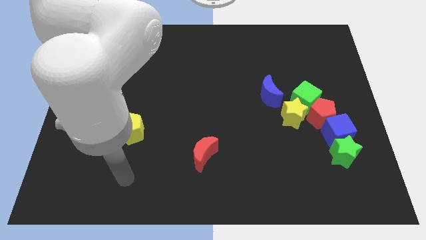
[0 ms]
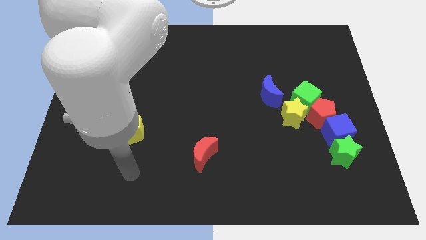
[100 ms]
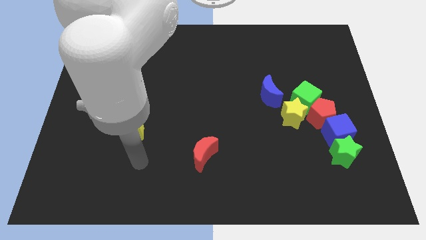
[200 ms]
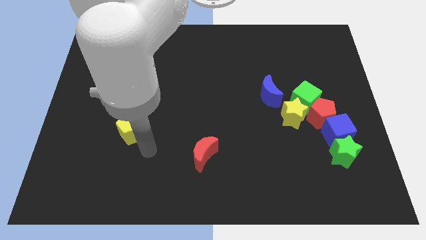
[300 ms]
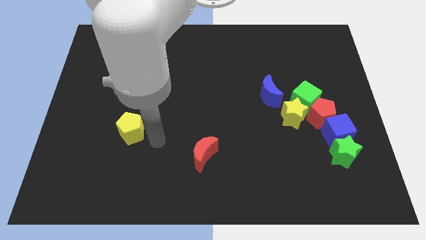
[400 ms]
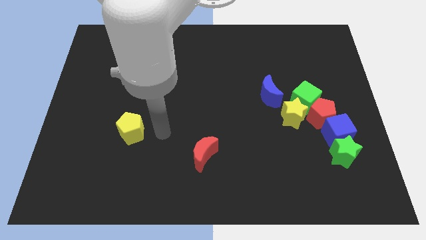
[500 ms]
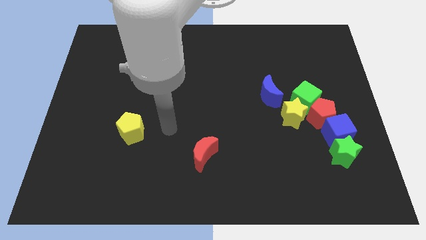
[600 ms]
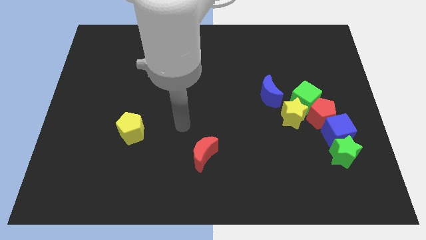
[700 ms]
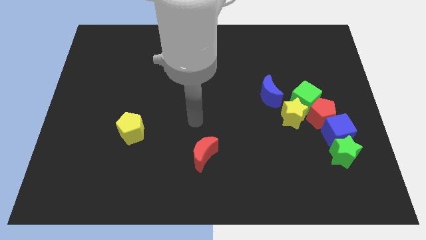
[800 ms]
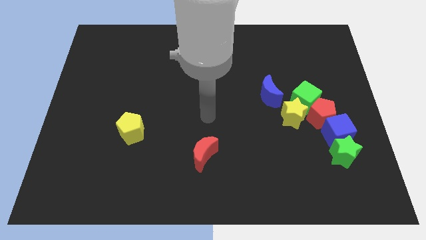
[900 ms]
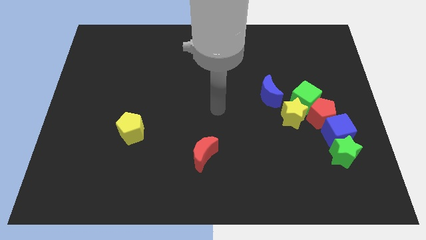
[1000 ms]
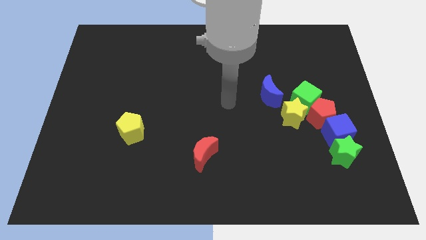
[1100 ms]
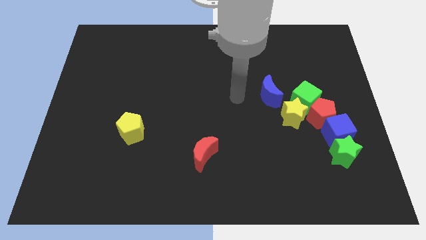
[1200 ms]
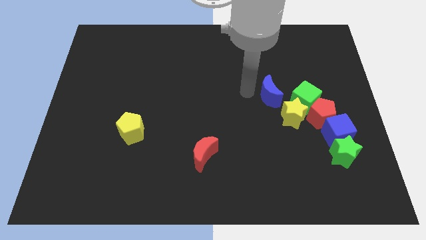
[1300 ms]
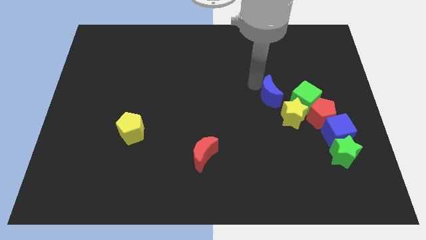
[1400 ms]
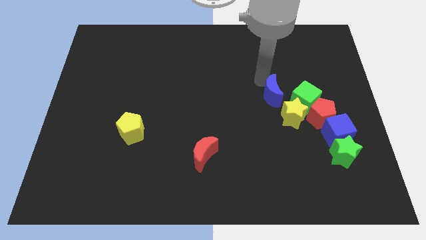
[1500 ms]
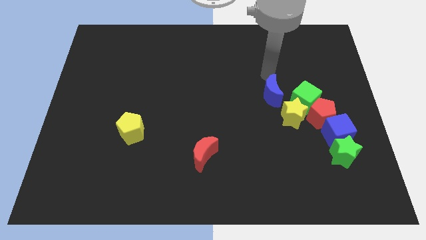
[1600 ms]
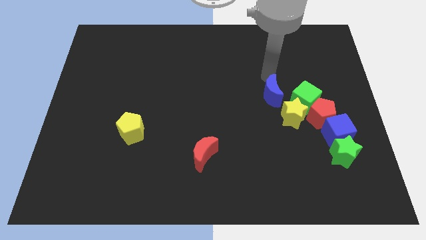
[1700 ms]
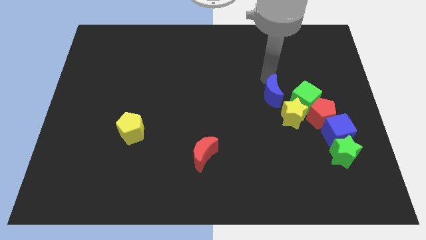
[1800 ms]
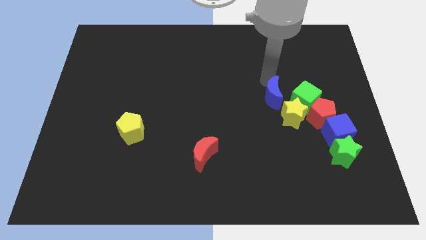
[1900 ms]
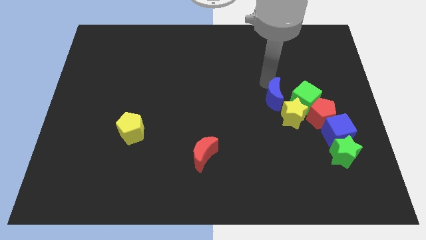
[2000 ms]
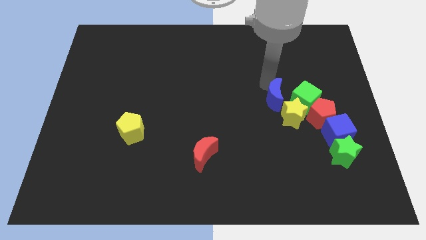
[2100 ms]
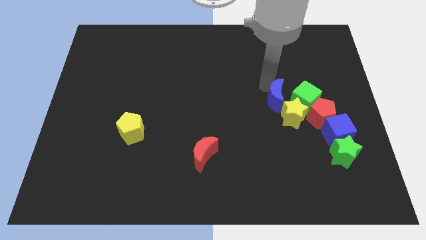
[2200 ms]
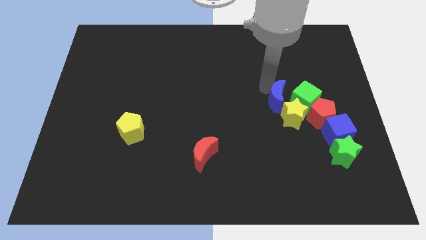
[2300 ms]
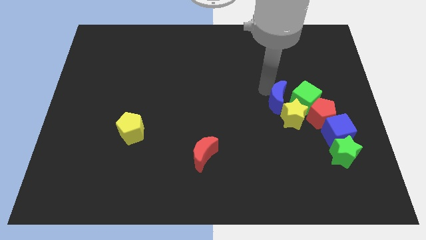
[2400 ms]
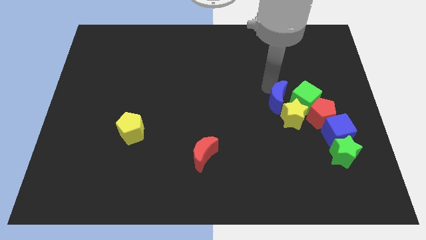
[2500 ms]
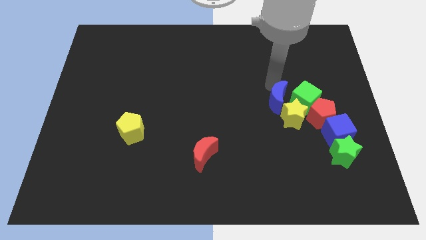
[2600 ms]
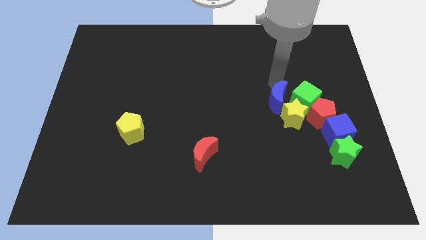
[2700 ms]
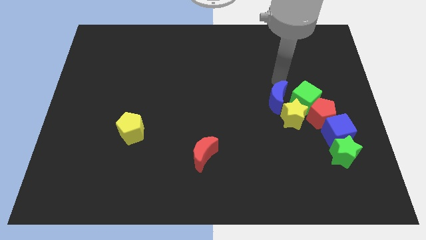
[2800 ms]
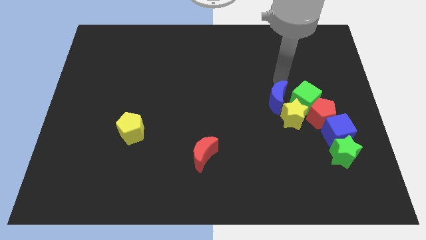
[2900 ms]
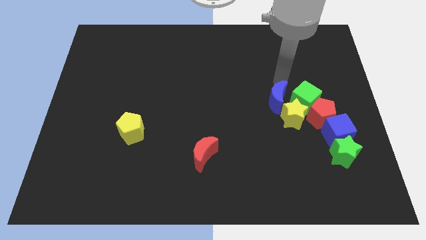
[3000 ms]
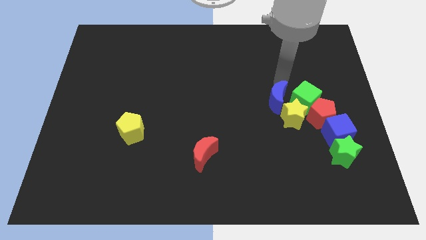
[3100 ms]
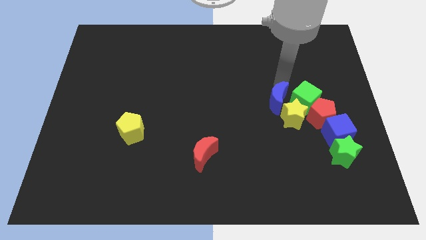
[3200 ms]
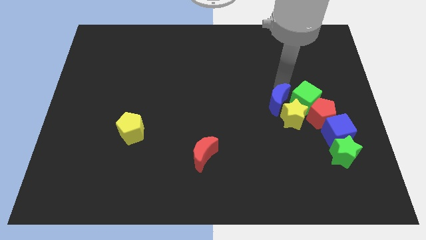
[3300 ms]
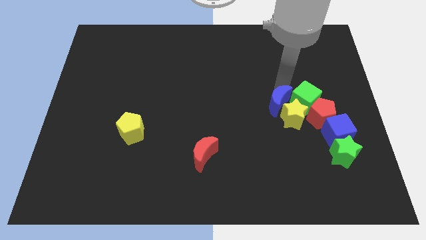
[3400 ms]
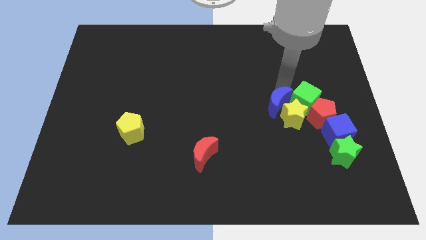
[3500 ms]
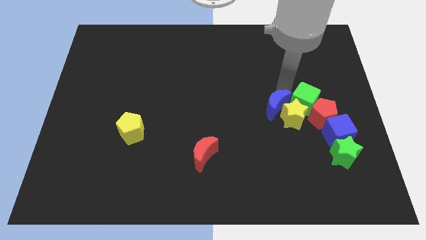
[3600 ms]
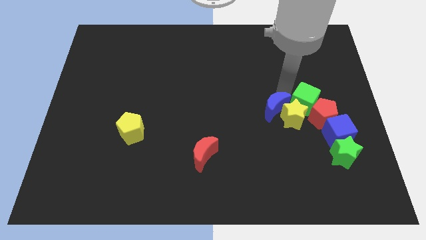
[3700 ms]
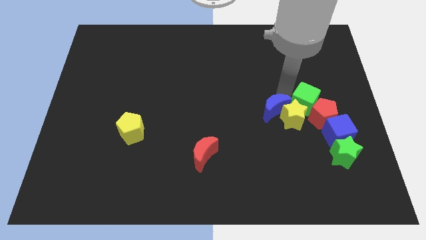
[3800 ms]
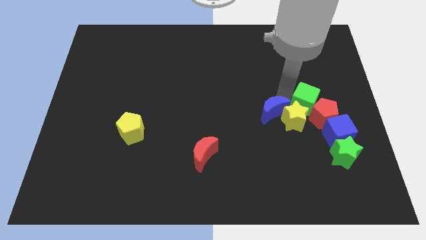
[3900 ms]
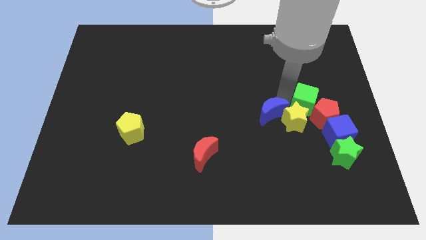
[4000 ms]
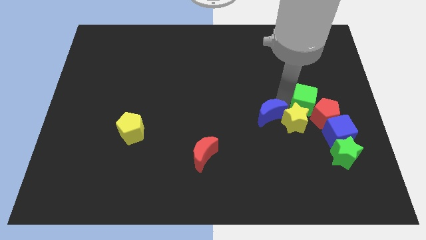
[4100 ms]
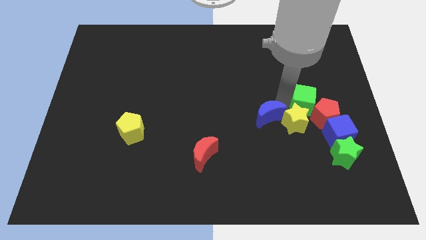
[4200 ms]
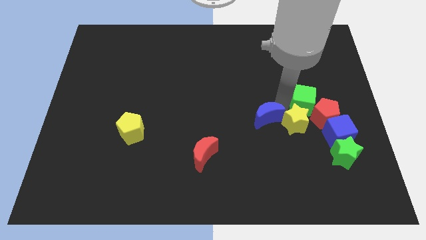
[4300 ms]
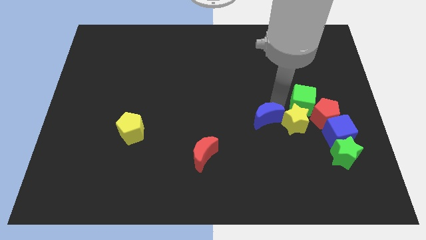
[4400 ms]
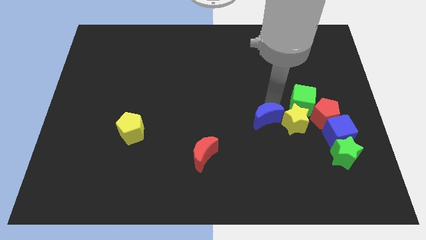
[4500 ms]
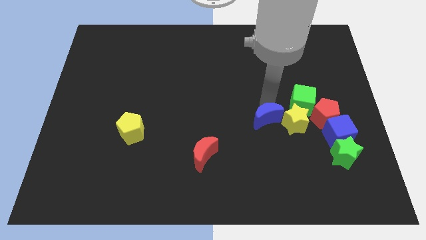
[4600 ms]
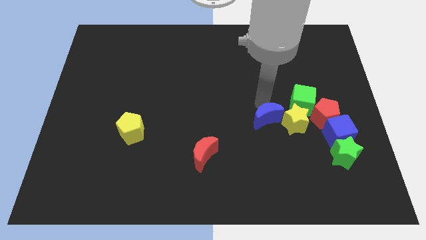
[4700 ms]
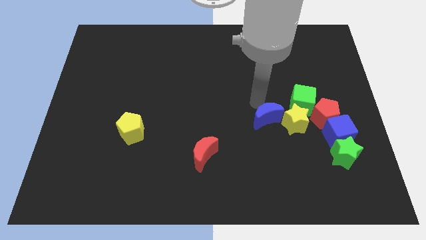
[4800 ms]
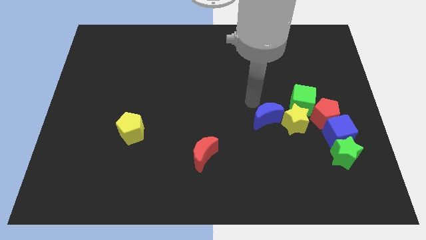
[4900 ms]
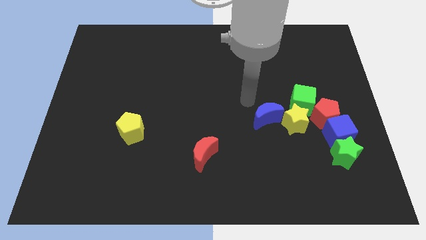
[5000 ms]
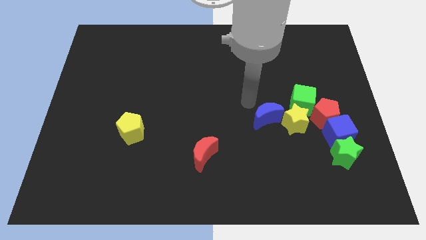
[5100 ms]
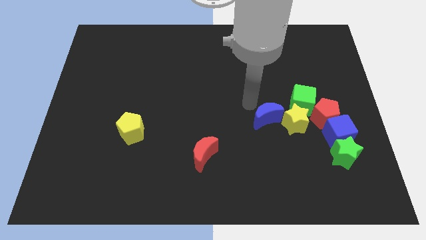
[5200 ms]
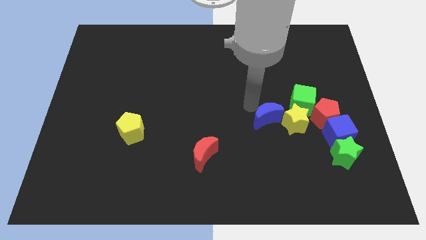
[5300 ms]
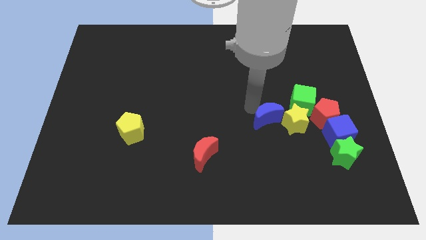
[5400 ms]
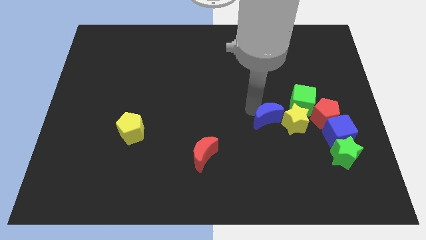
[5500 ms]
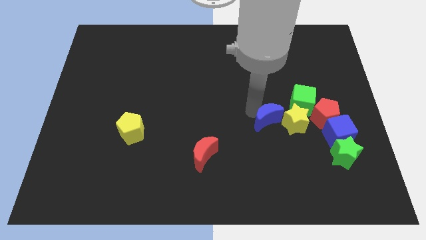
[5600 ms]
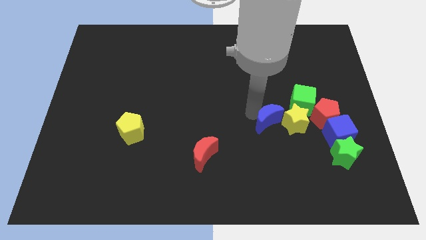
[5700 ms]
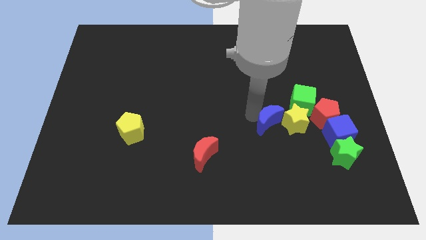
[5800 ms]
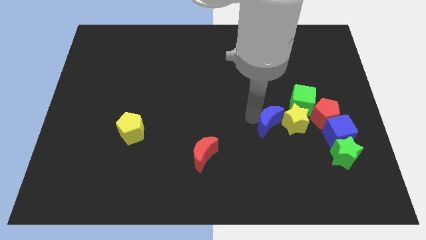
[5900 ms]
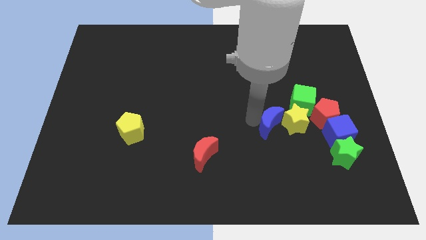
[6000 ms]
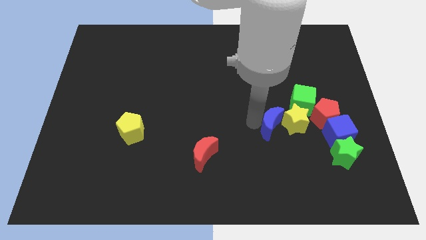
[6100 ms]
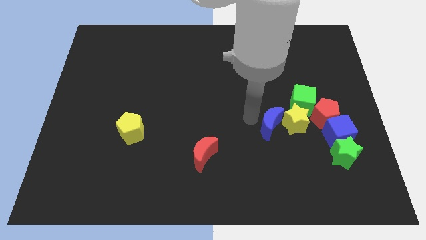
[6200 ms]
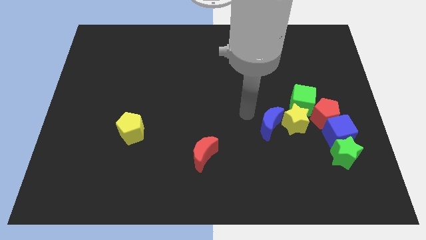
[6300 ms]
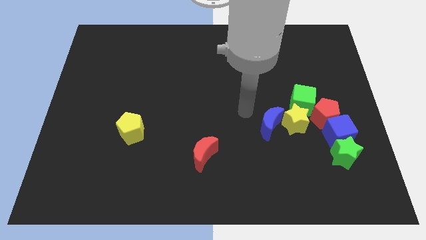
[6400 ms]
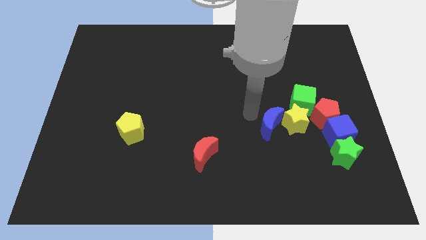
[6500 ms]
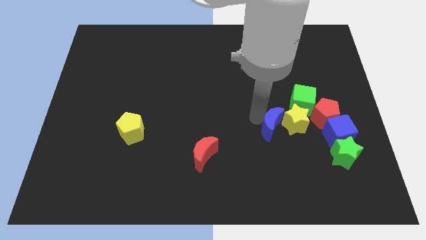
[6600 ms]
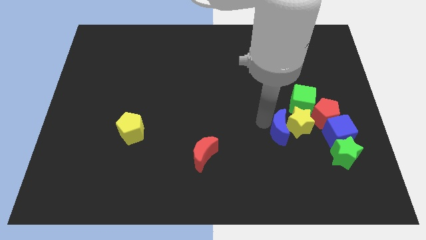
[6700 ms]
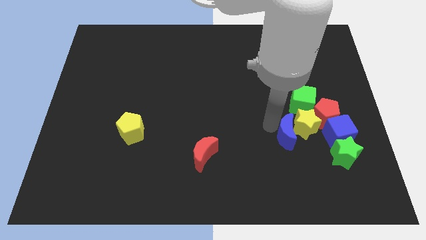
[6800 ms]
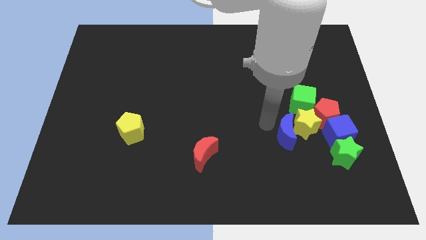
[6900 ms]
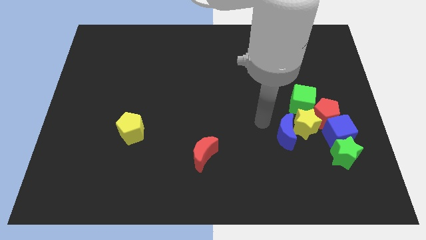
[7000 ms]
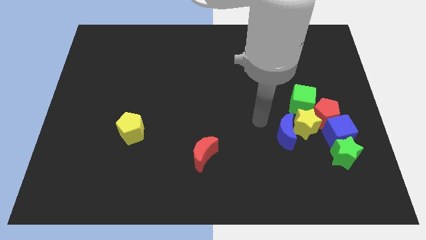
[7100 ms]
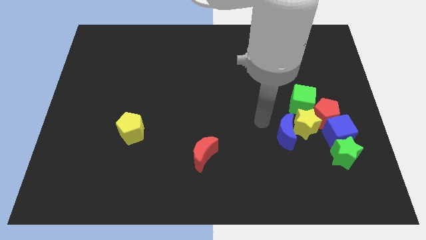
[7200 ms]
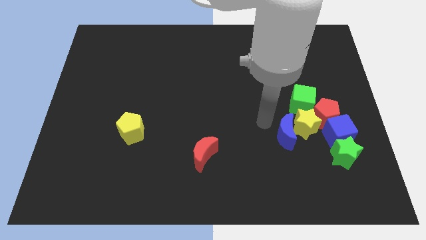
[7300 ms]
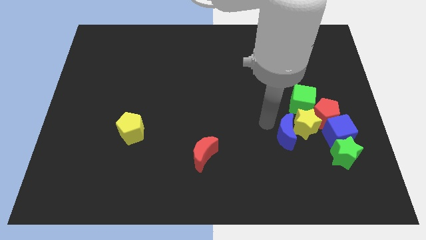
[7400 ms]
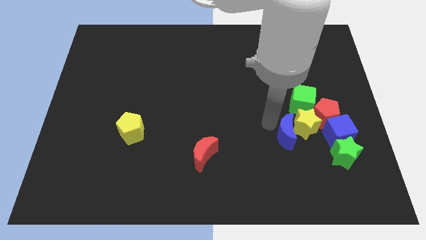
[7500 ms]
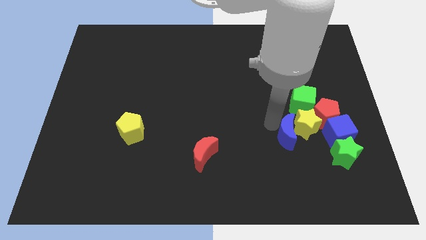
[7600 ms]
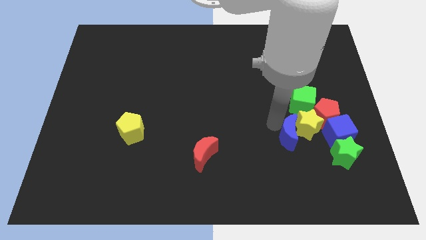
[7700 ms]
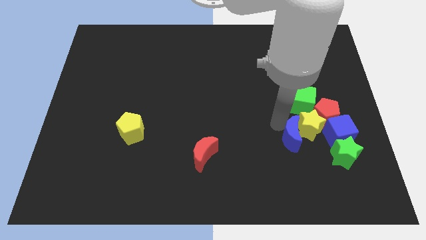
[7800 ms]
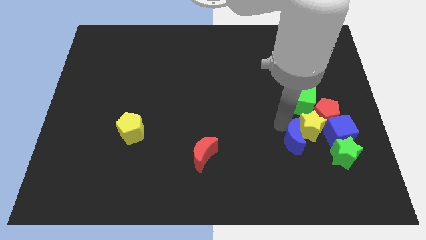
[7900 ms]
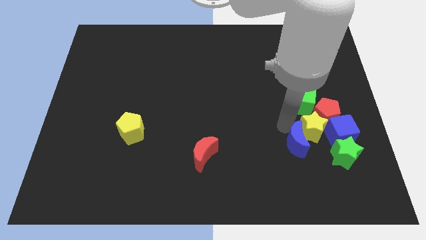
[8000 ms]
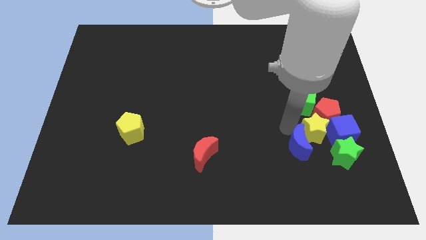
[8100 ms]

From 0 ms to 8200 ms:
put the blue moon diagonally down and to the left of the blue cube
